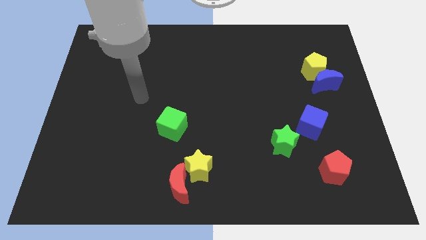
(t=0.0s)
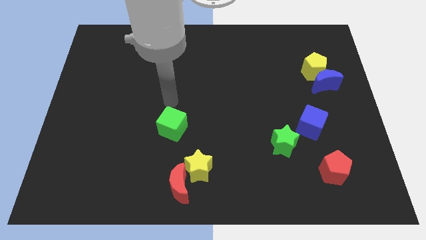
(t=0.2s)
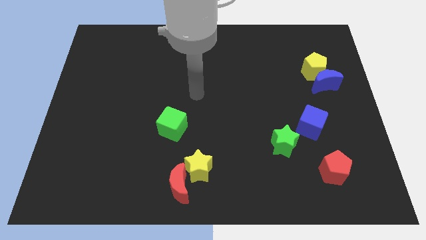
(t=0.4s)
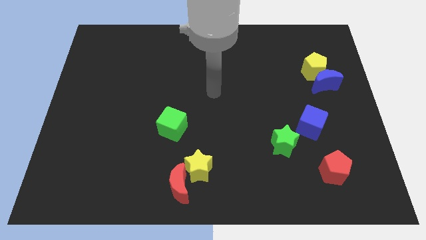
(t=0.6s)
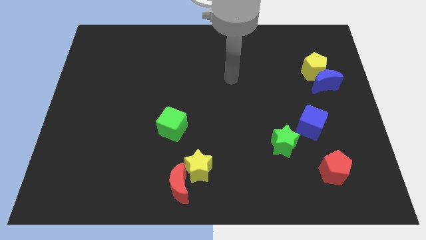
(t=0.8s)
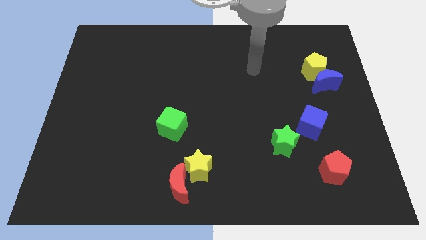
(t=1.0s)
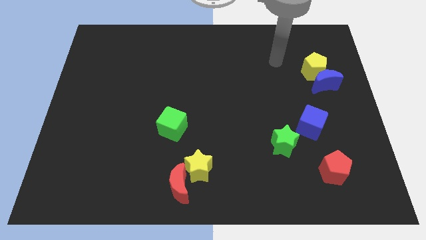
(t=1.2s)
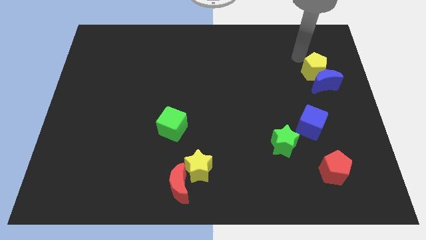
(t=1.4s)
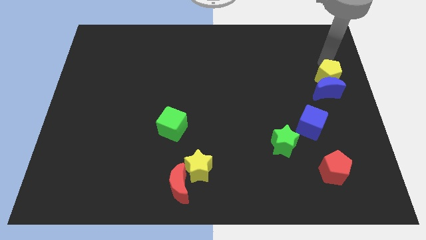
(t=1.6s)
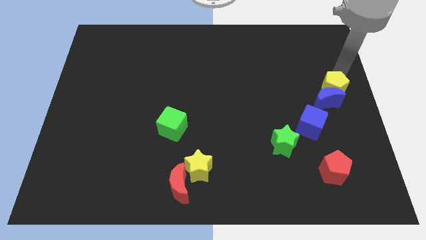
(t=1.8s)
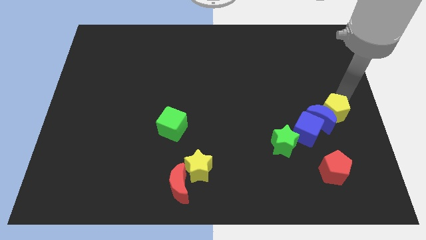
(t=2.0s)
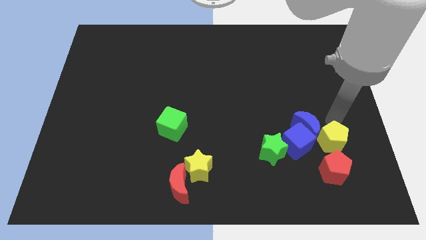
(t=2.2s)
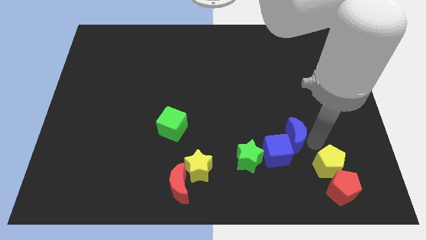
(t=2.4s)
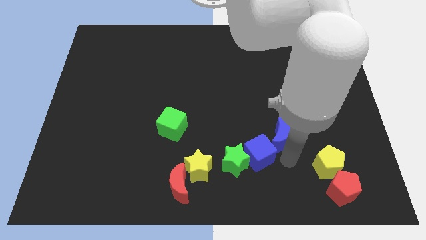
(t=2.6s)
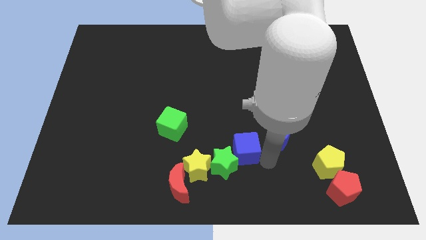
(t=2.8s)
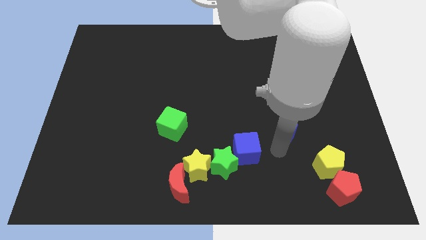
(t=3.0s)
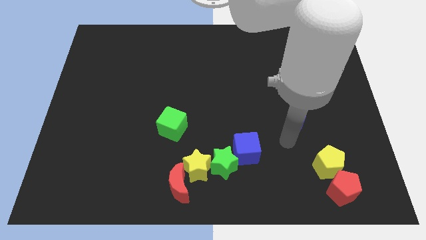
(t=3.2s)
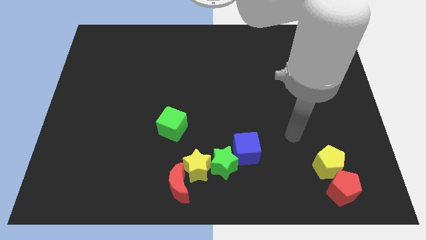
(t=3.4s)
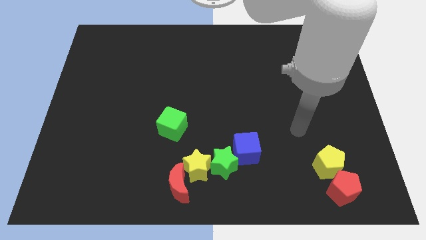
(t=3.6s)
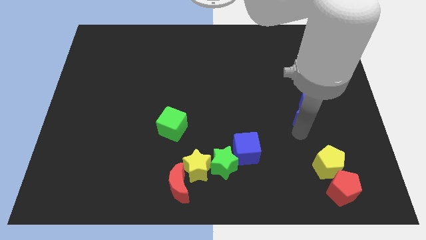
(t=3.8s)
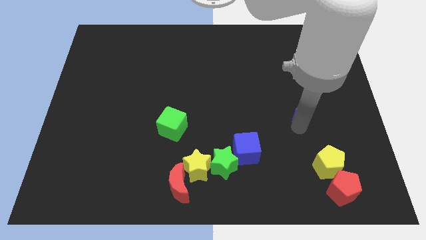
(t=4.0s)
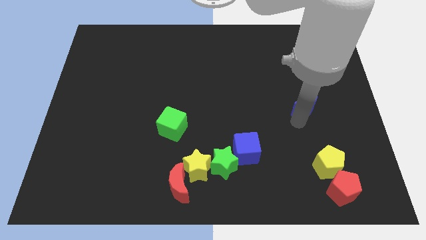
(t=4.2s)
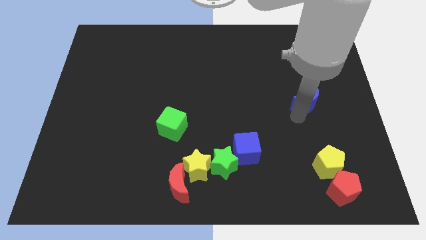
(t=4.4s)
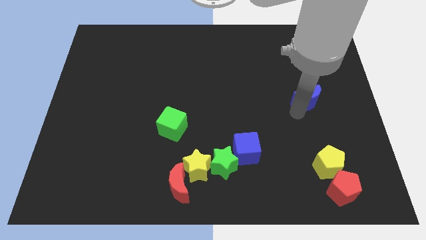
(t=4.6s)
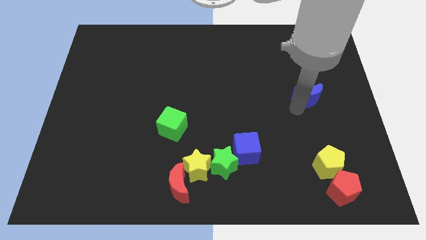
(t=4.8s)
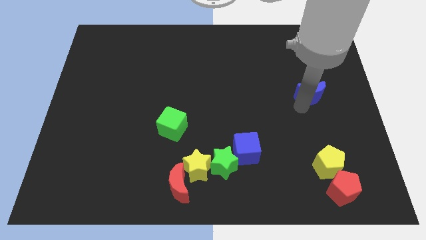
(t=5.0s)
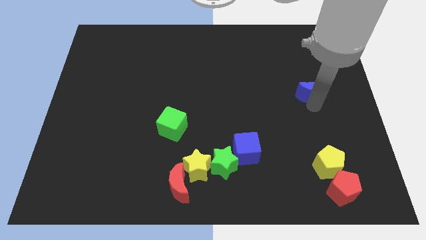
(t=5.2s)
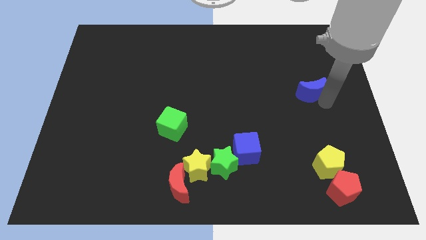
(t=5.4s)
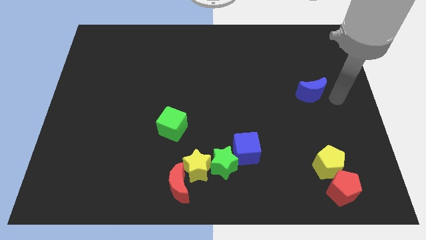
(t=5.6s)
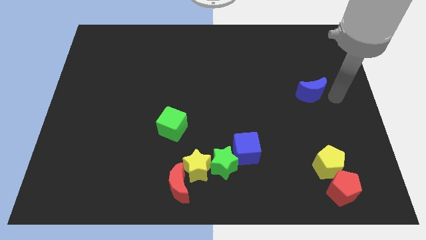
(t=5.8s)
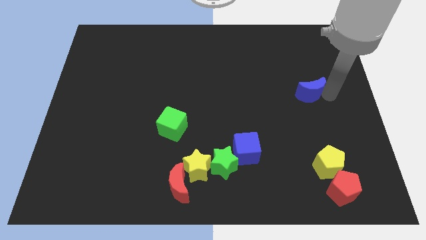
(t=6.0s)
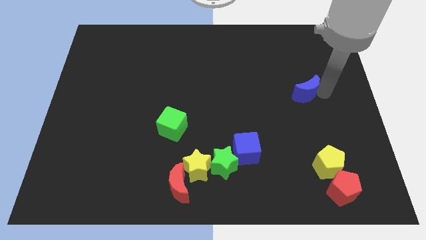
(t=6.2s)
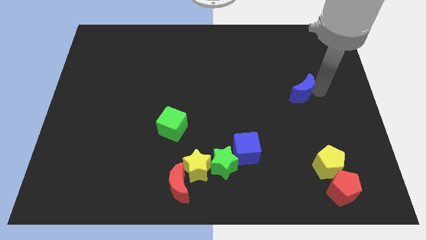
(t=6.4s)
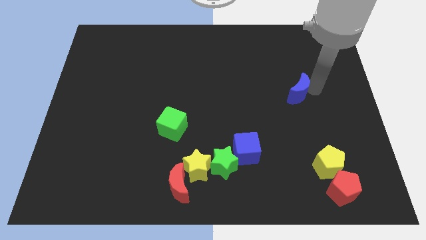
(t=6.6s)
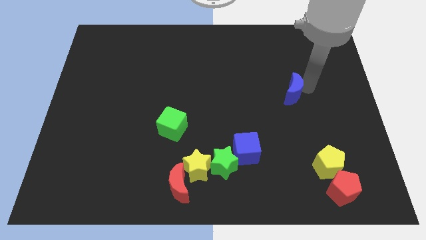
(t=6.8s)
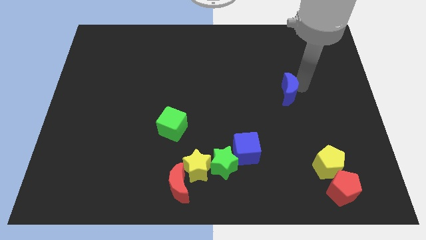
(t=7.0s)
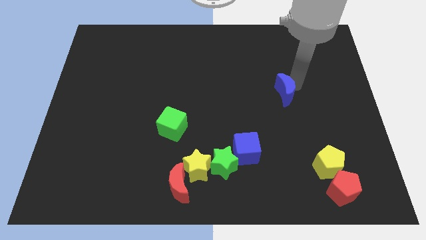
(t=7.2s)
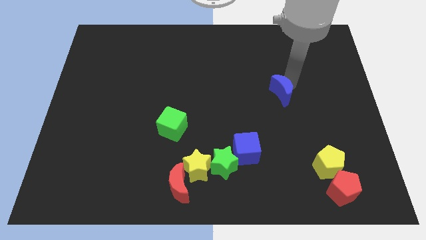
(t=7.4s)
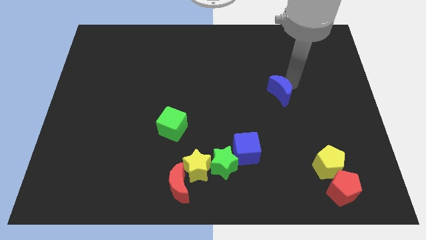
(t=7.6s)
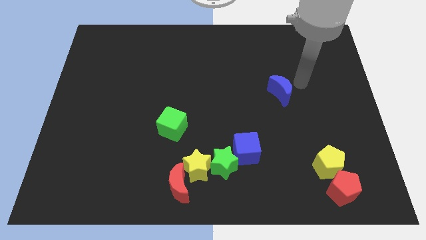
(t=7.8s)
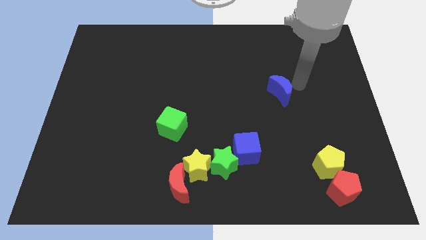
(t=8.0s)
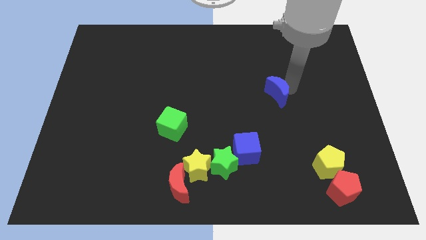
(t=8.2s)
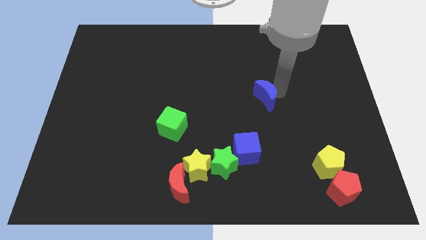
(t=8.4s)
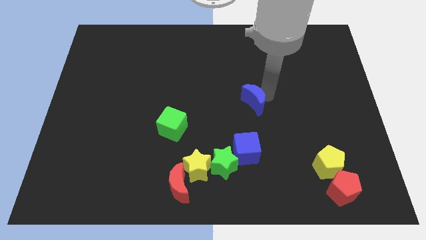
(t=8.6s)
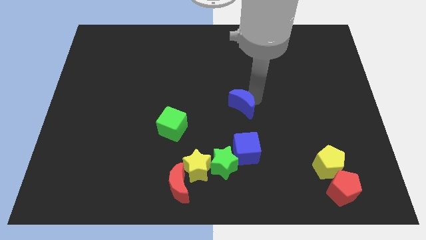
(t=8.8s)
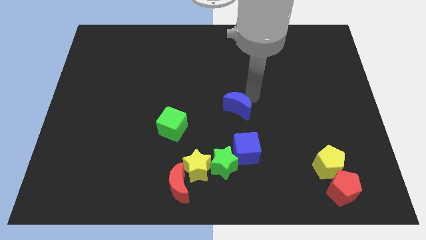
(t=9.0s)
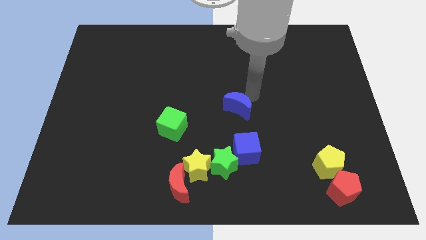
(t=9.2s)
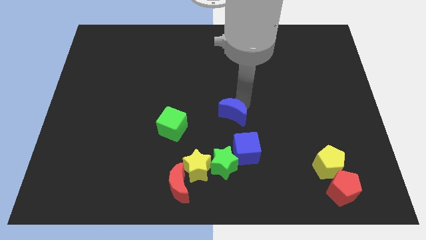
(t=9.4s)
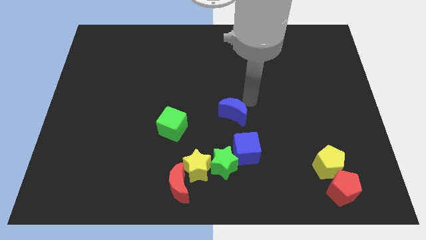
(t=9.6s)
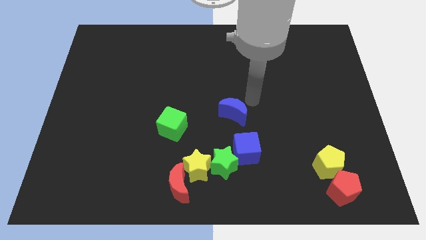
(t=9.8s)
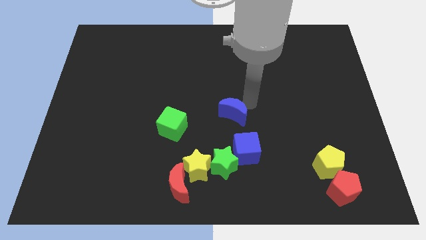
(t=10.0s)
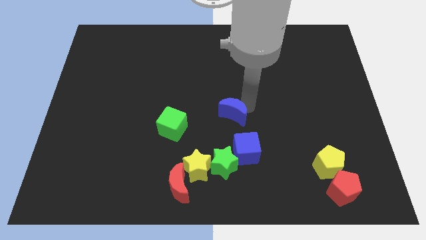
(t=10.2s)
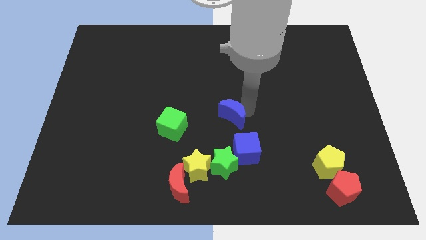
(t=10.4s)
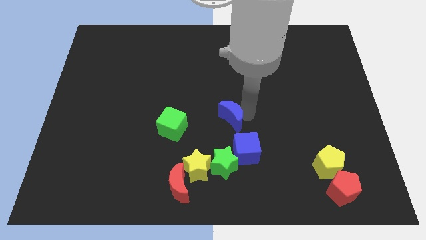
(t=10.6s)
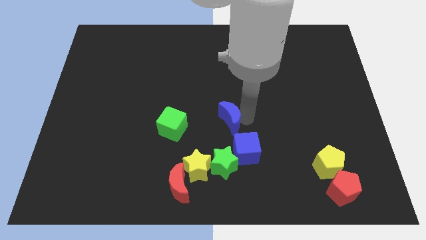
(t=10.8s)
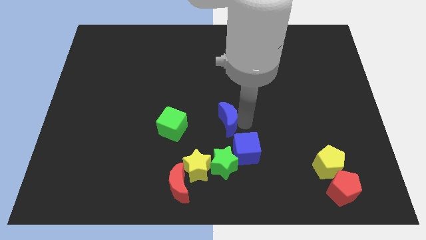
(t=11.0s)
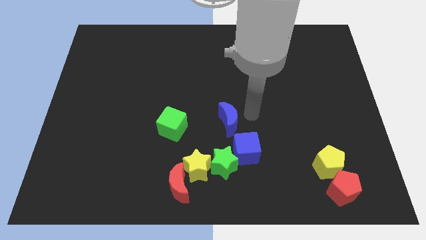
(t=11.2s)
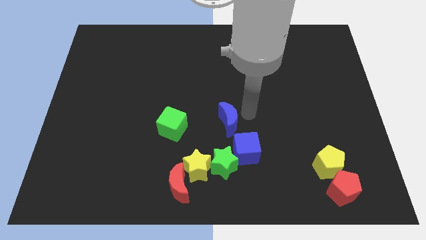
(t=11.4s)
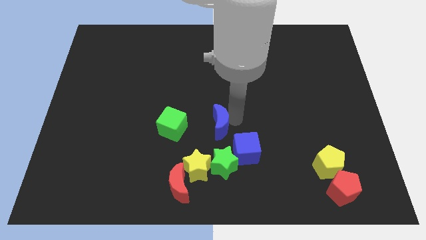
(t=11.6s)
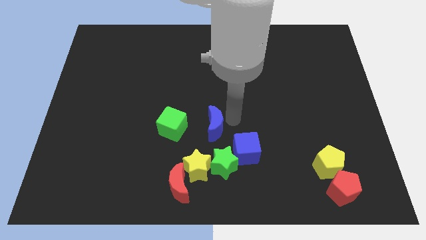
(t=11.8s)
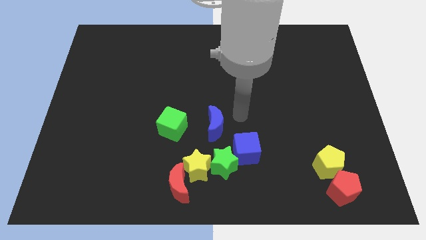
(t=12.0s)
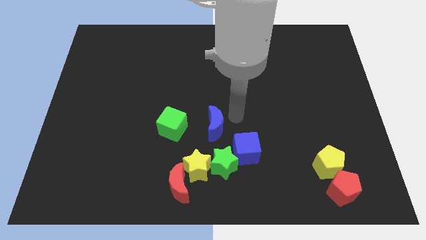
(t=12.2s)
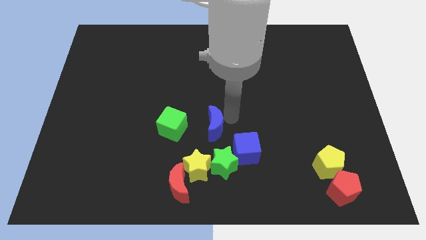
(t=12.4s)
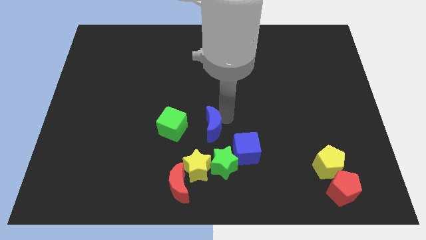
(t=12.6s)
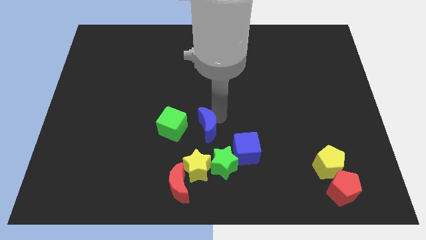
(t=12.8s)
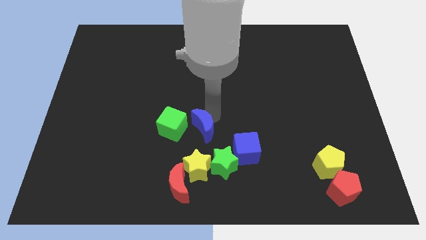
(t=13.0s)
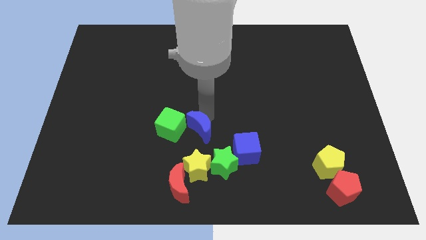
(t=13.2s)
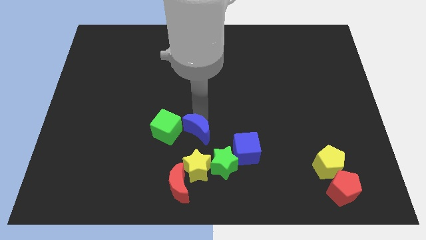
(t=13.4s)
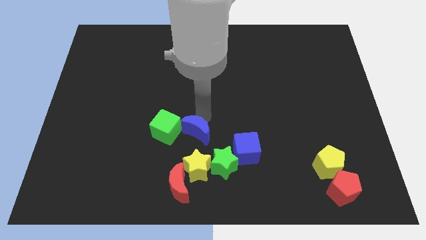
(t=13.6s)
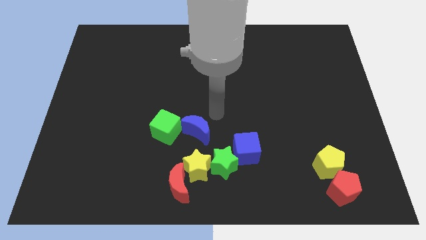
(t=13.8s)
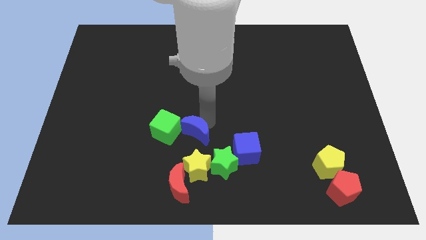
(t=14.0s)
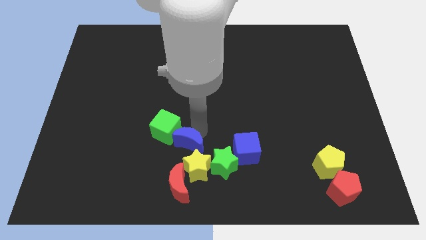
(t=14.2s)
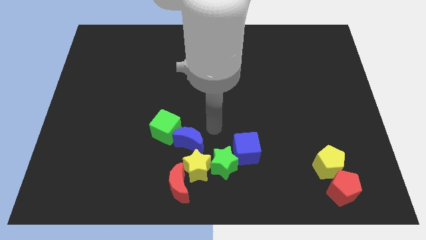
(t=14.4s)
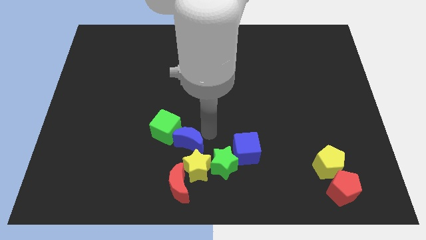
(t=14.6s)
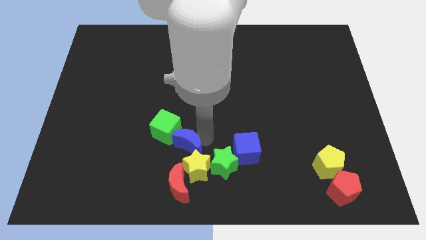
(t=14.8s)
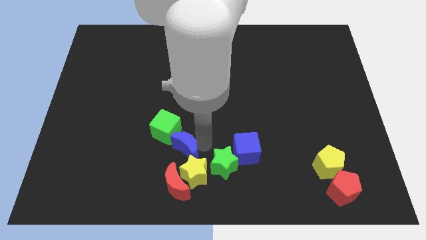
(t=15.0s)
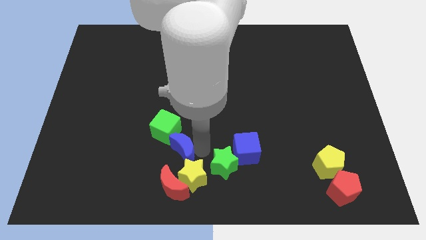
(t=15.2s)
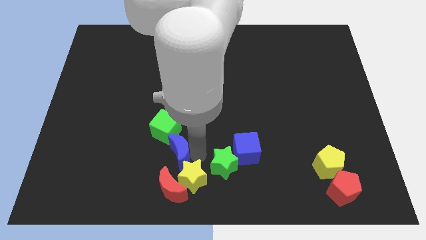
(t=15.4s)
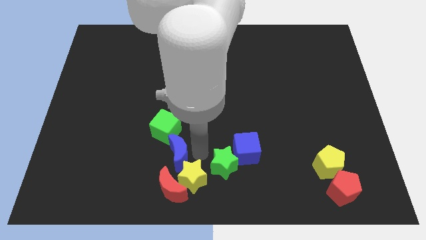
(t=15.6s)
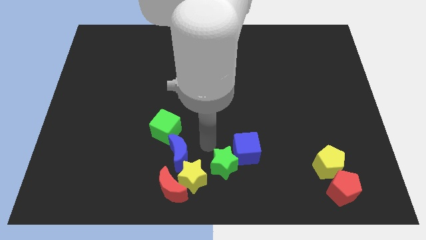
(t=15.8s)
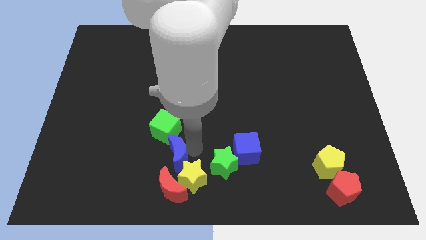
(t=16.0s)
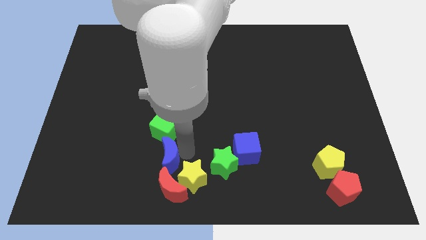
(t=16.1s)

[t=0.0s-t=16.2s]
slide the blue moon diagonally up and to the left of the red moon
